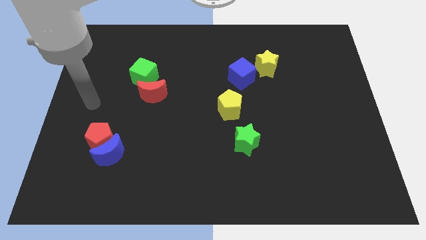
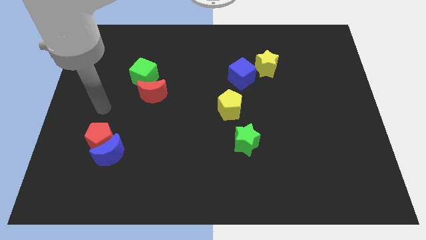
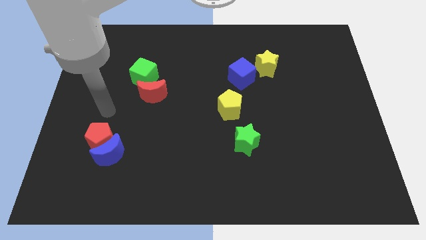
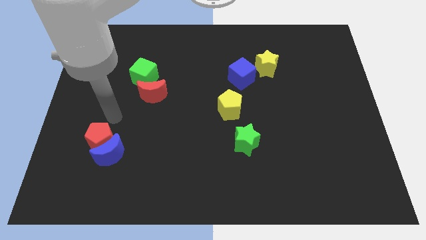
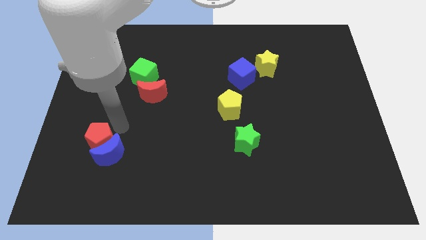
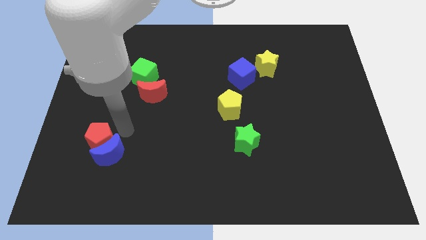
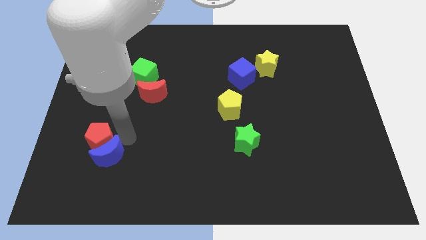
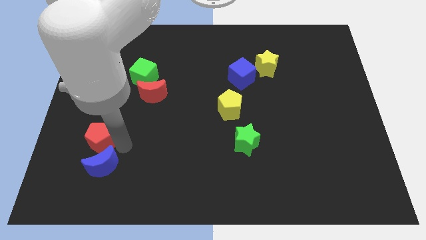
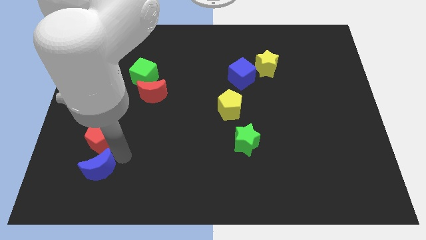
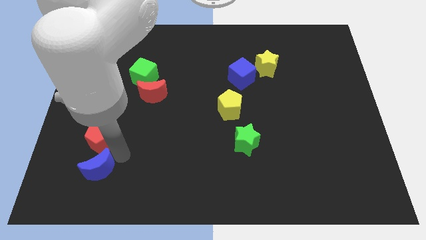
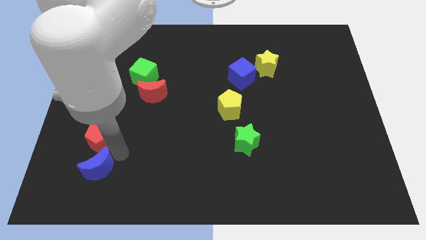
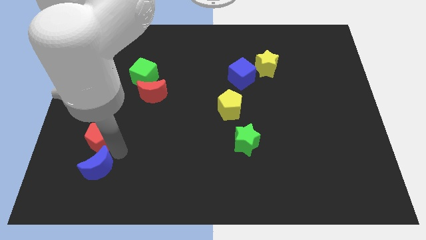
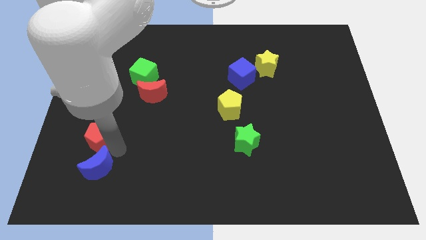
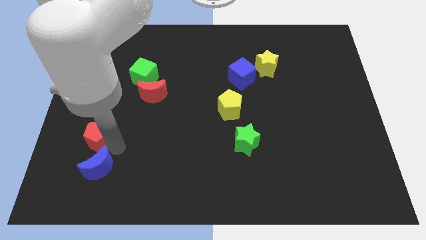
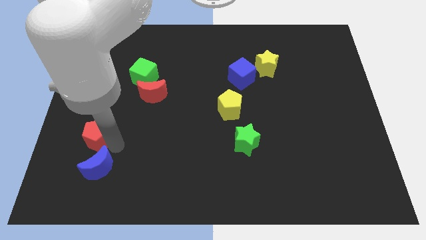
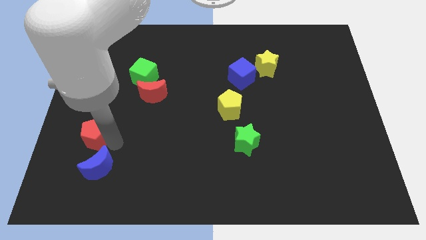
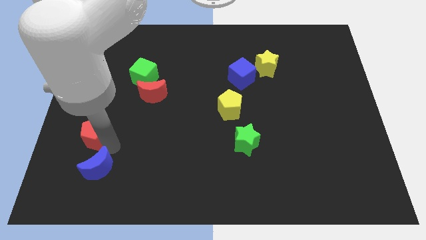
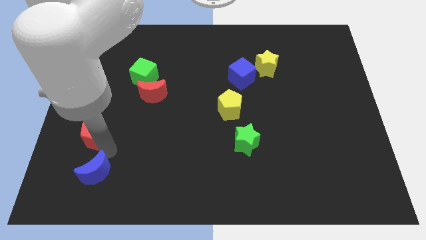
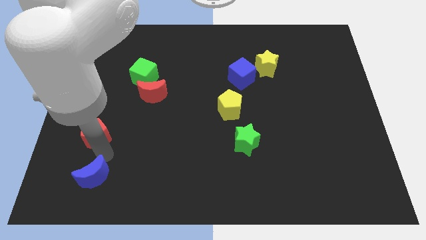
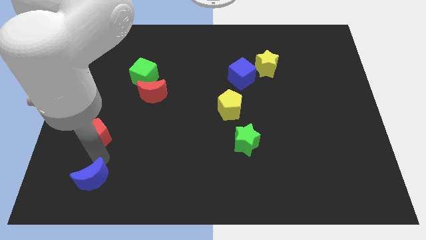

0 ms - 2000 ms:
separate the red pentagon from the blue moon

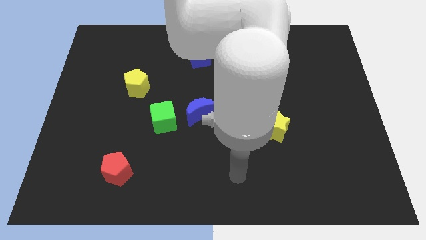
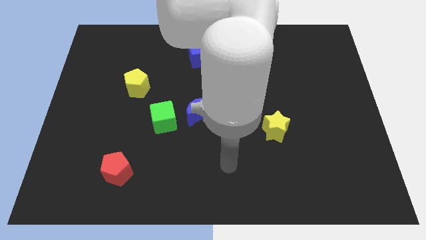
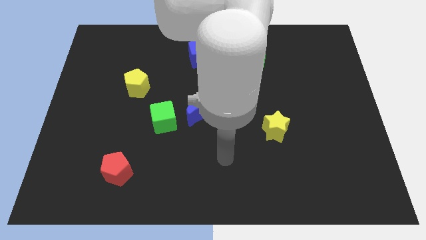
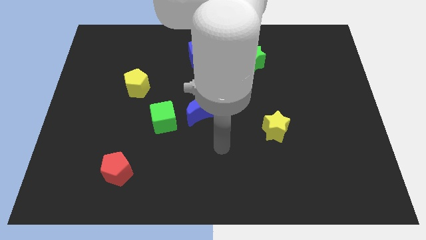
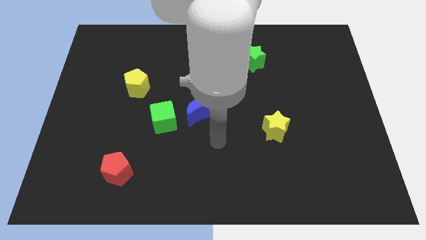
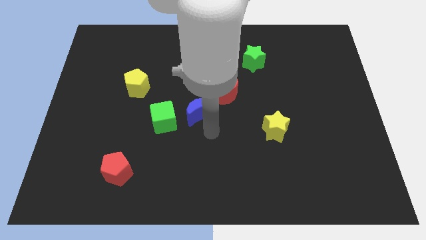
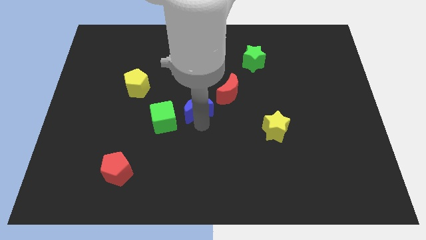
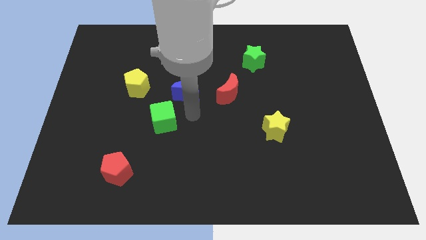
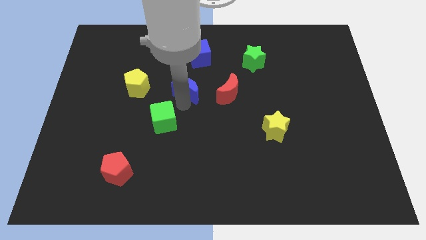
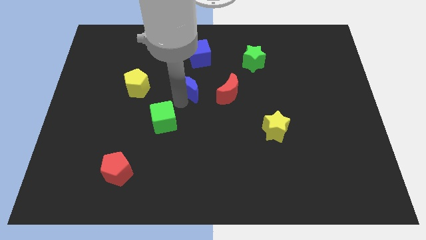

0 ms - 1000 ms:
separate the green cube from the blue moon

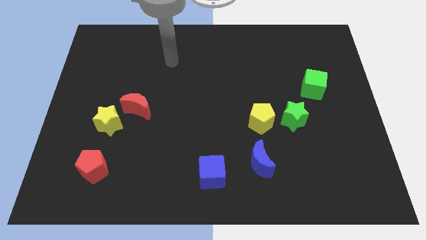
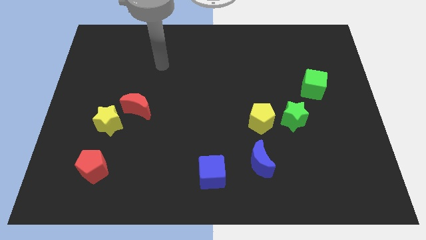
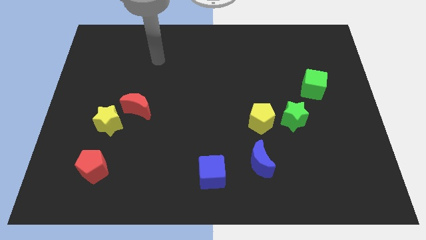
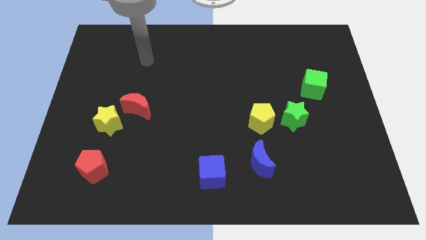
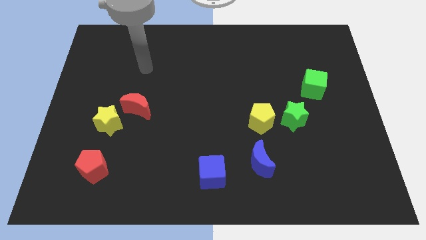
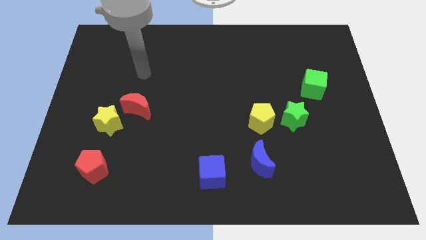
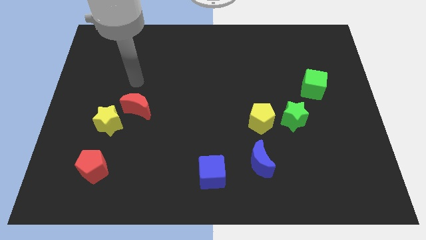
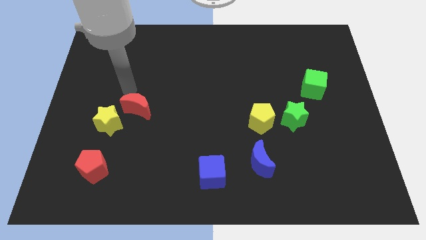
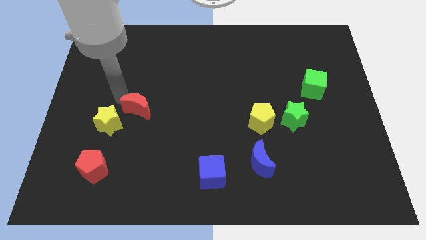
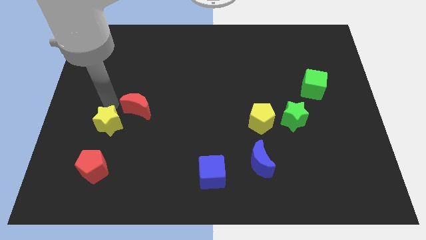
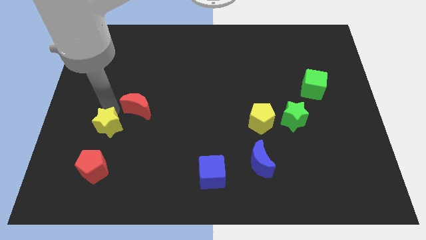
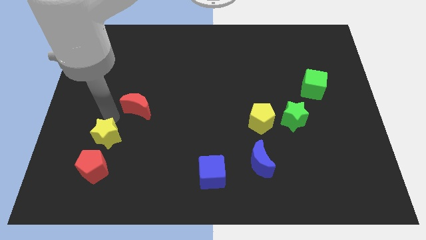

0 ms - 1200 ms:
pull the red moon apart from the yellow star

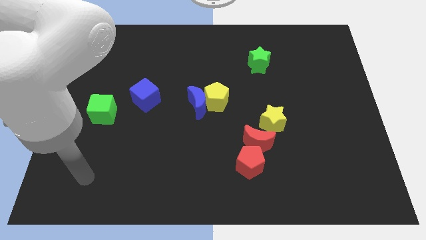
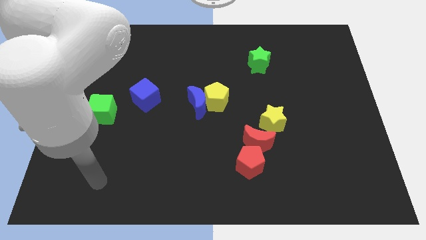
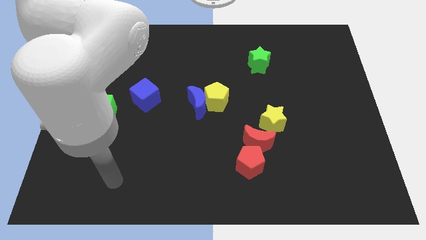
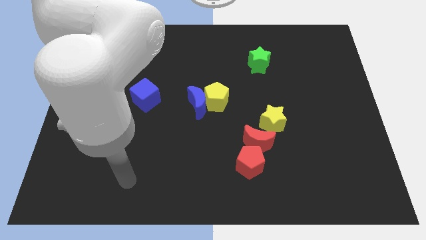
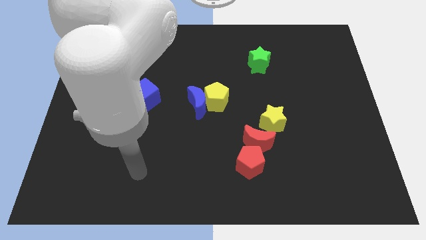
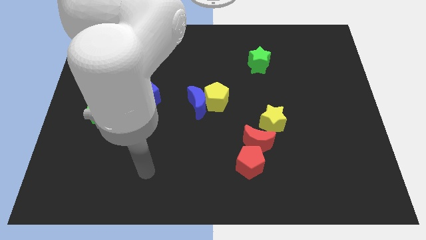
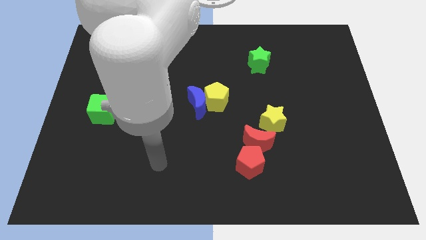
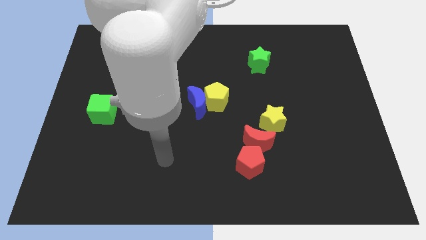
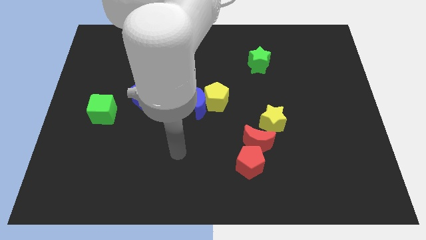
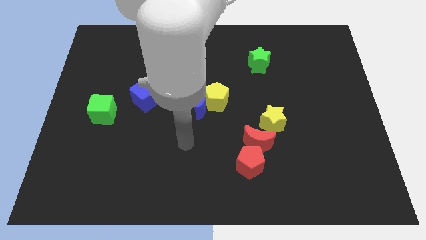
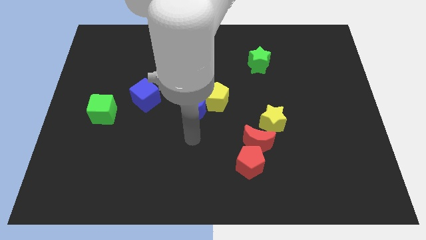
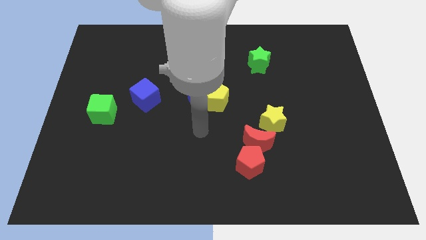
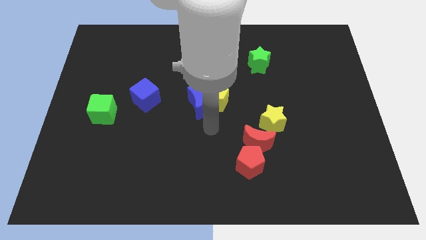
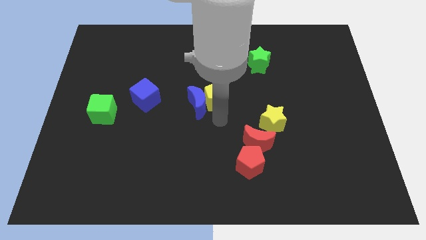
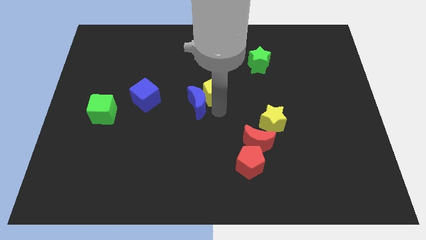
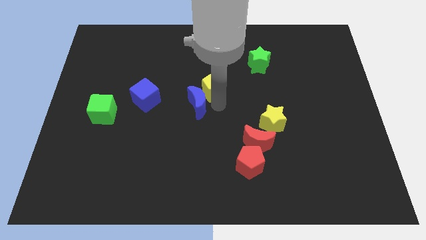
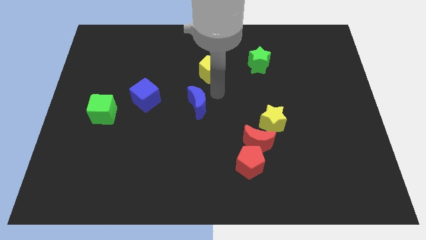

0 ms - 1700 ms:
pull the blue moon apart from the yellow pentagon

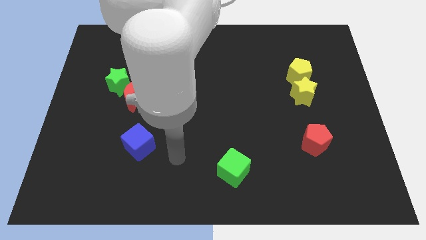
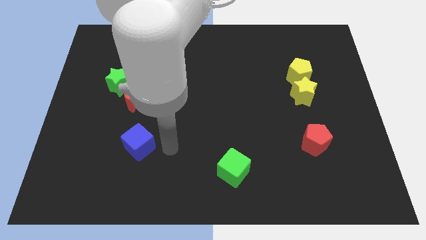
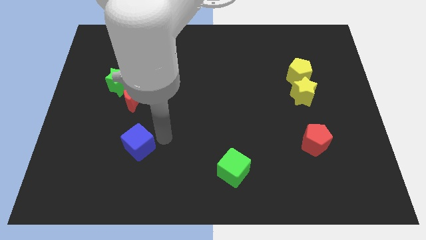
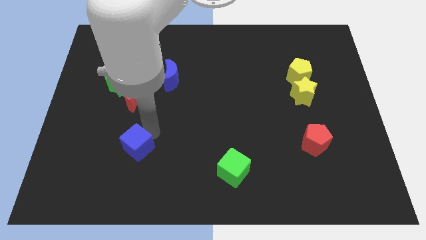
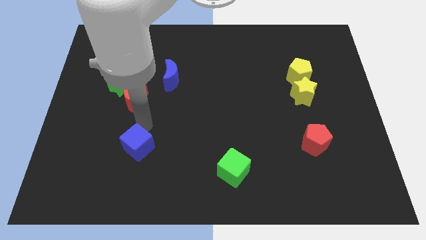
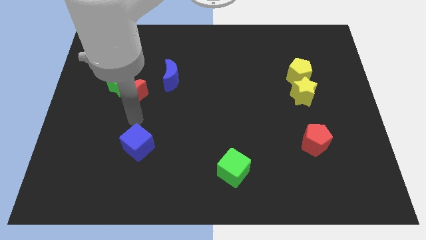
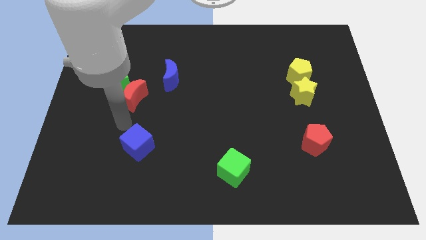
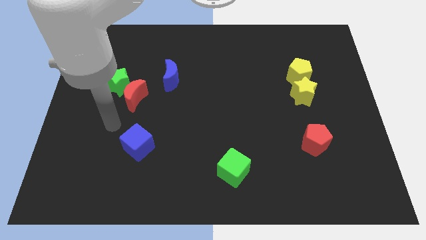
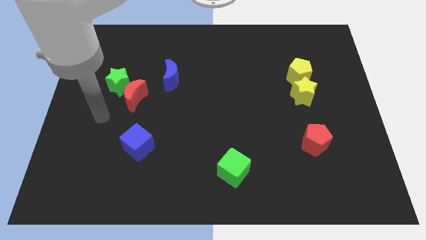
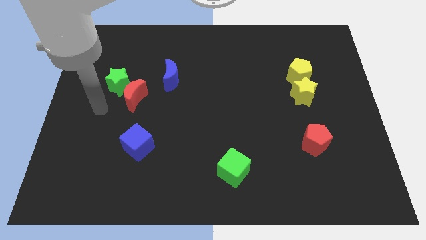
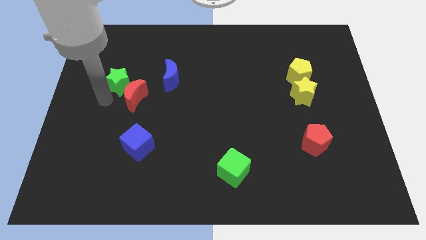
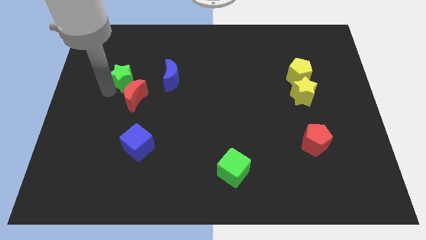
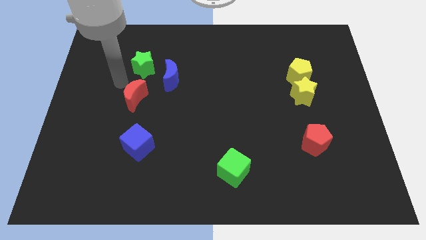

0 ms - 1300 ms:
pull the red moon apart from the green star

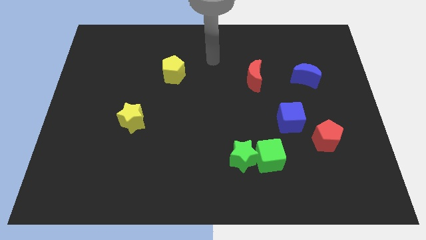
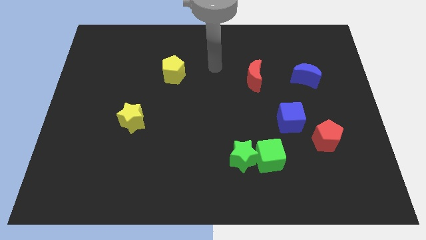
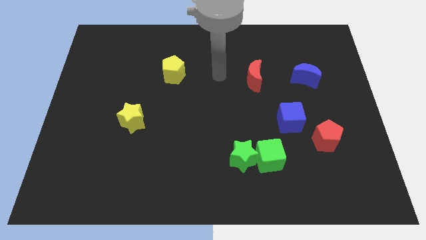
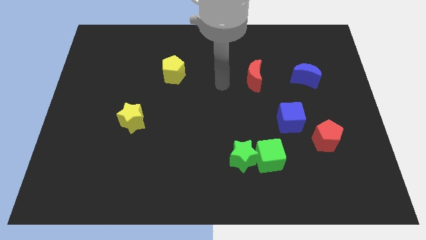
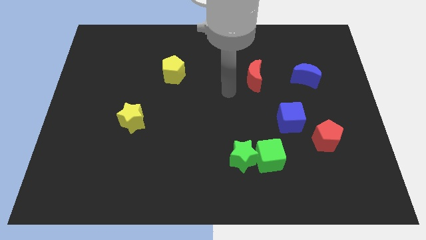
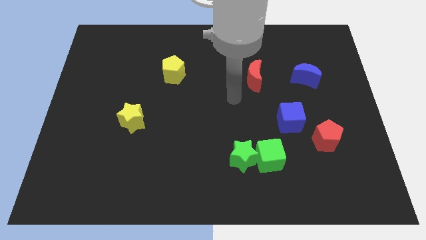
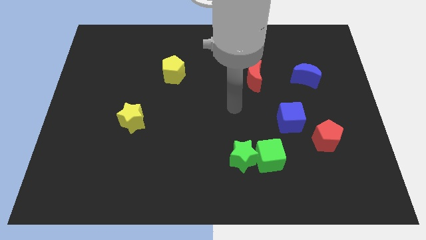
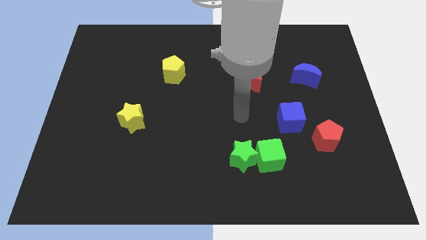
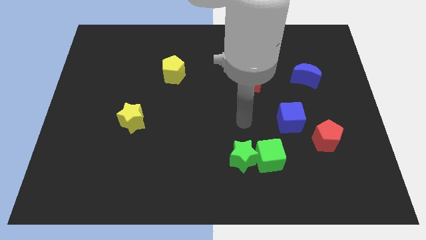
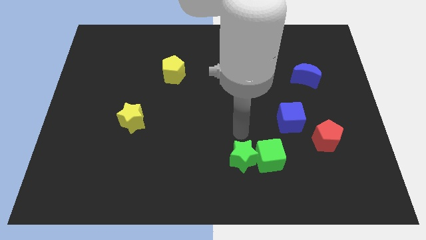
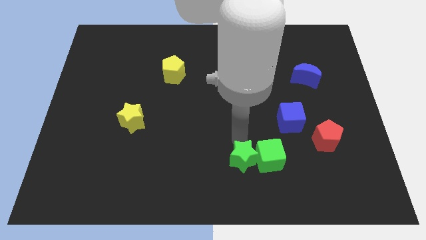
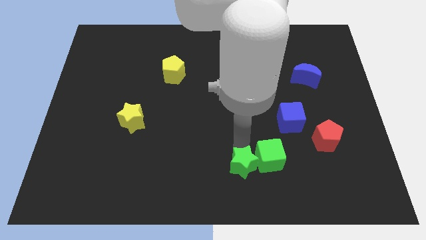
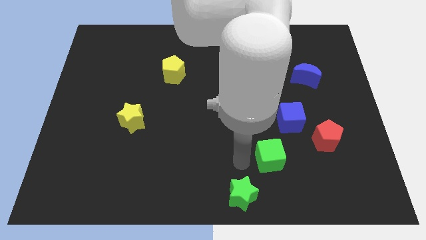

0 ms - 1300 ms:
move the green cube away from the green star

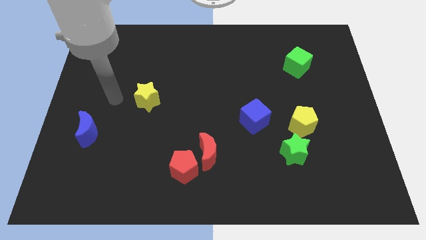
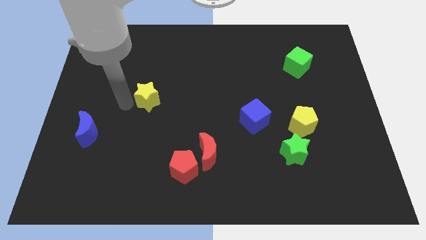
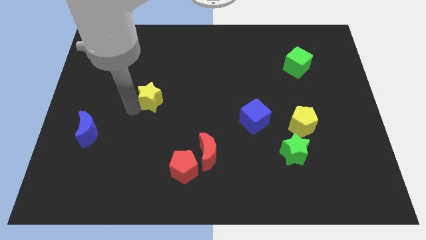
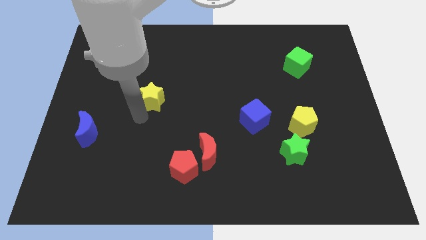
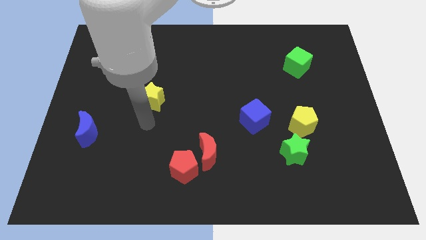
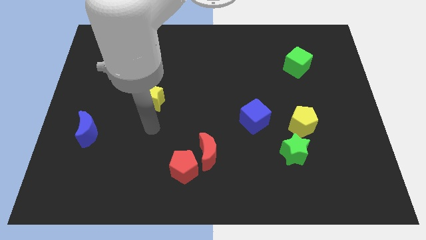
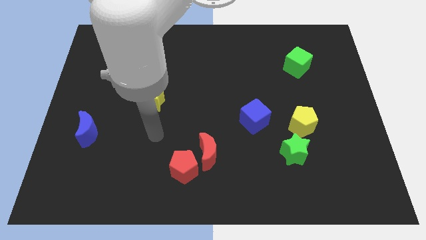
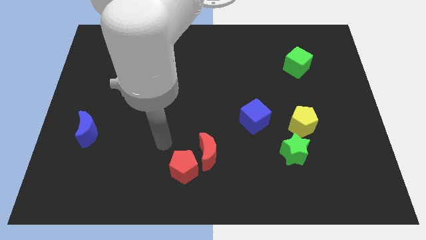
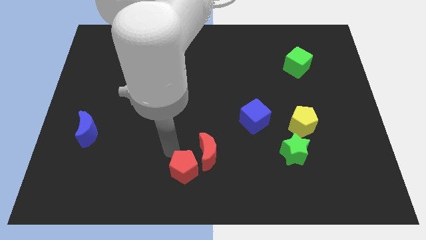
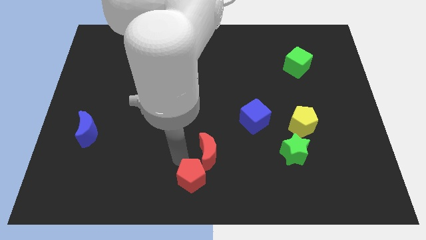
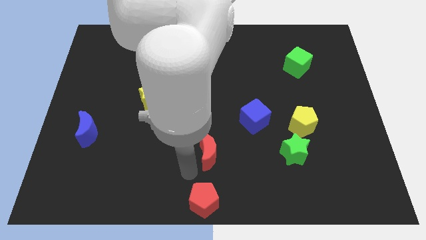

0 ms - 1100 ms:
separate the red moon from the red pentagon
